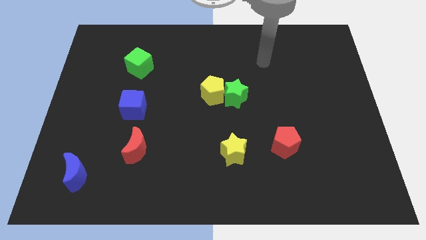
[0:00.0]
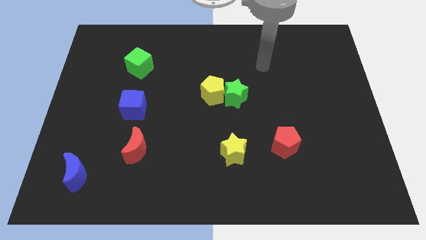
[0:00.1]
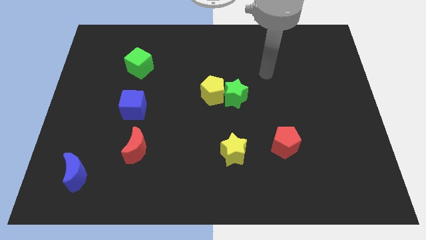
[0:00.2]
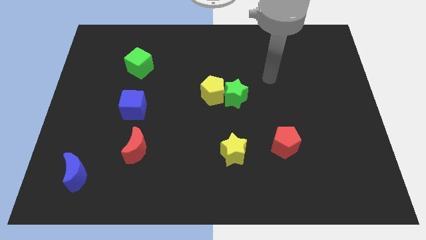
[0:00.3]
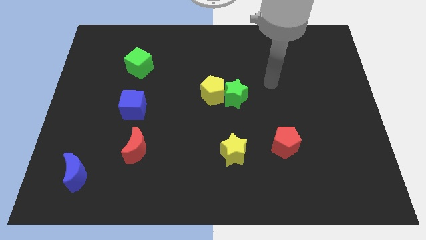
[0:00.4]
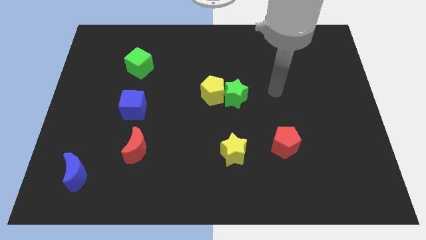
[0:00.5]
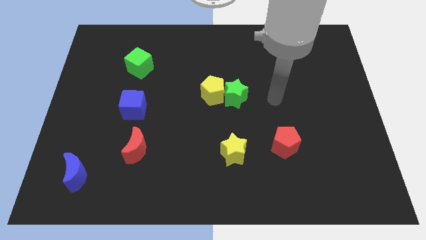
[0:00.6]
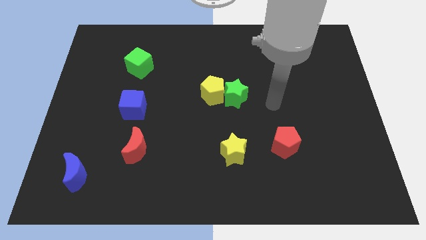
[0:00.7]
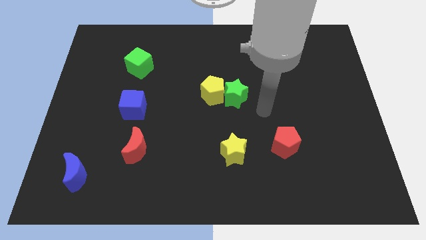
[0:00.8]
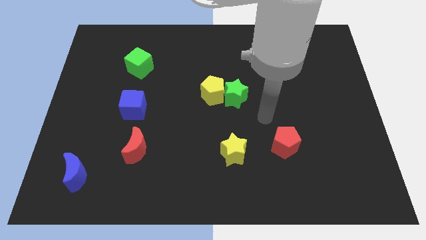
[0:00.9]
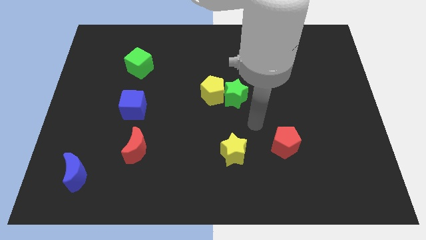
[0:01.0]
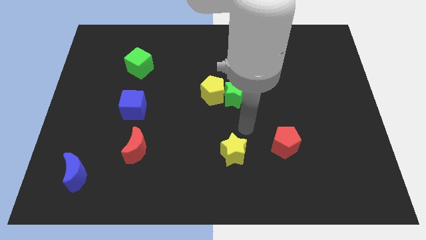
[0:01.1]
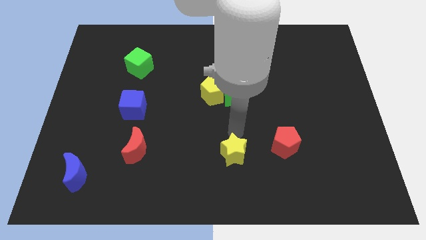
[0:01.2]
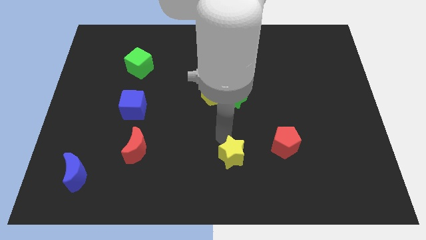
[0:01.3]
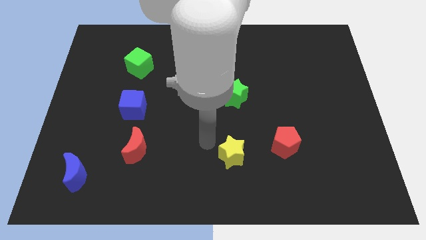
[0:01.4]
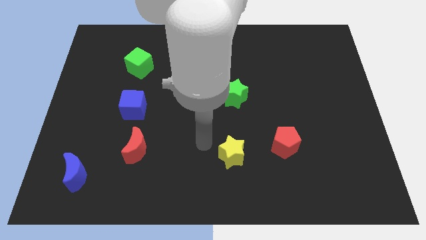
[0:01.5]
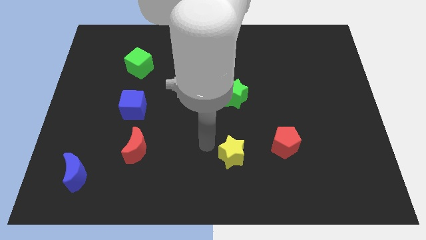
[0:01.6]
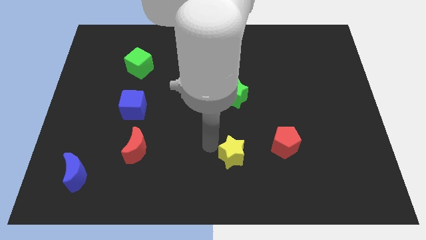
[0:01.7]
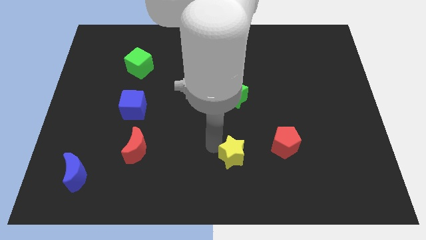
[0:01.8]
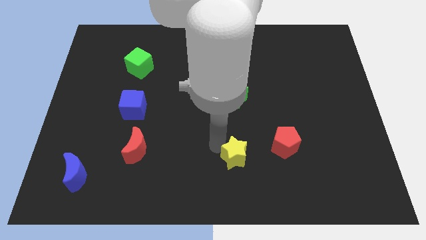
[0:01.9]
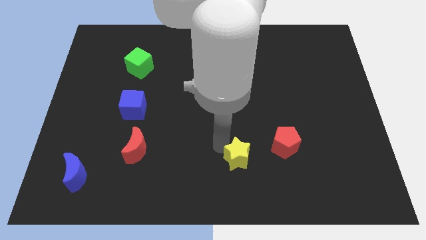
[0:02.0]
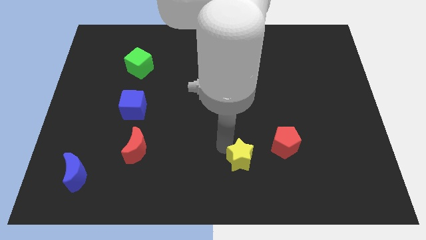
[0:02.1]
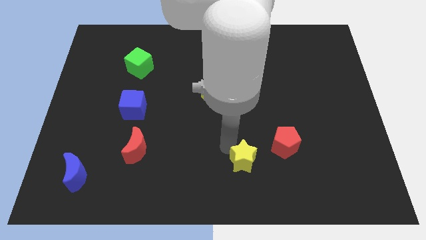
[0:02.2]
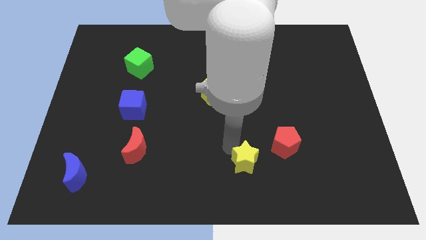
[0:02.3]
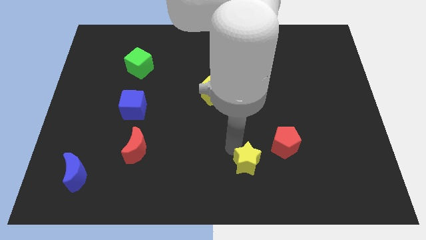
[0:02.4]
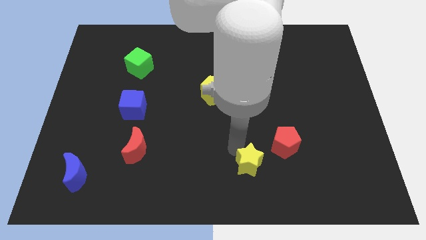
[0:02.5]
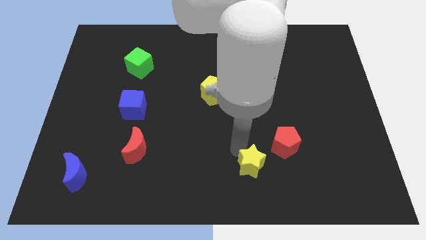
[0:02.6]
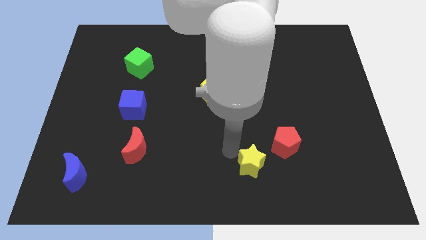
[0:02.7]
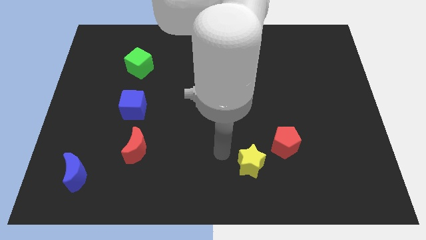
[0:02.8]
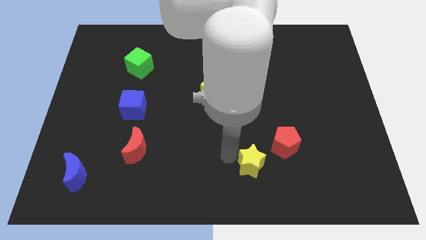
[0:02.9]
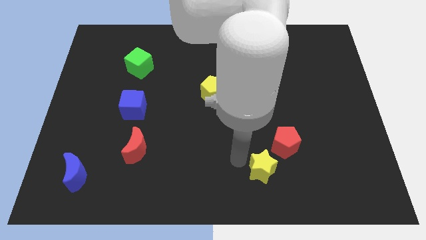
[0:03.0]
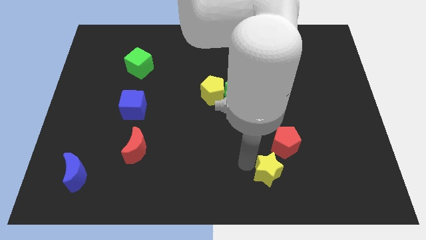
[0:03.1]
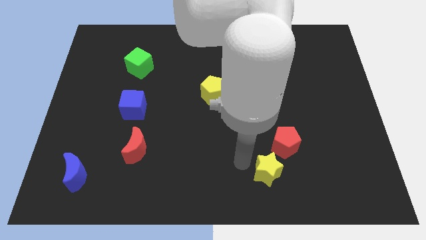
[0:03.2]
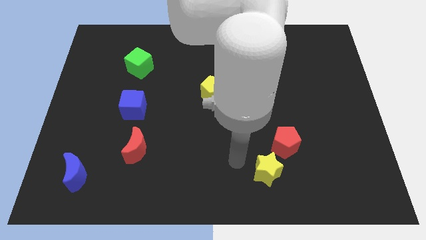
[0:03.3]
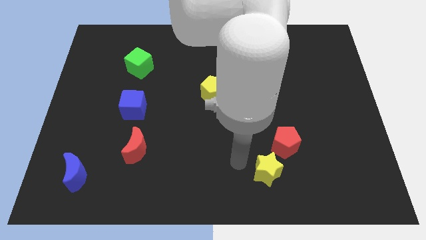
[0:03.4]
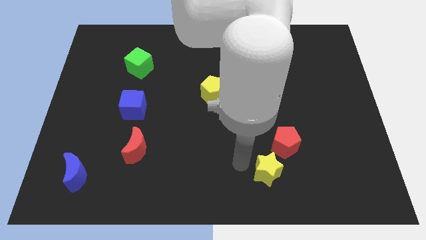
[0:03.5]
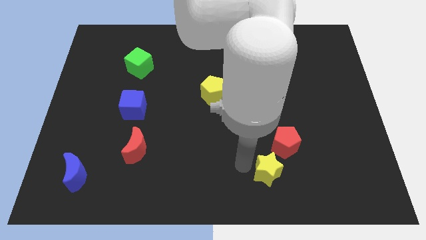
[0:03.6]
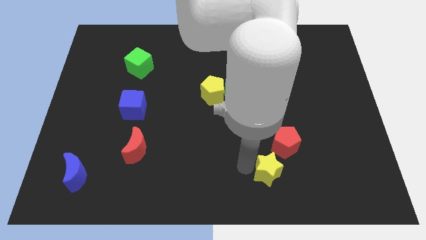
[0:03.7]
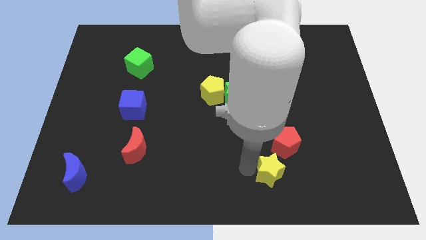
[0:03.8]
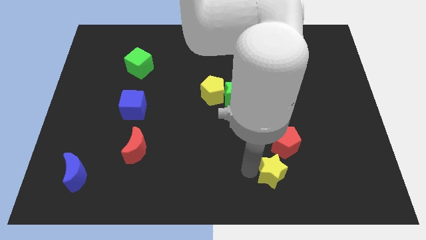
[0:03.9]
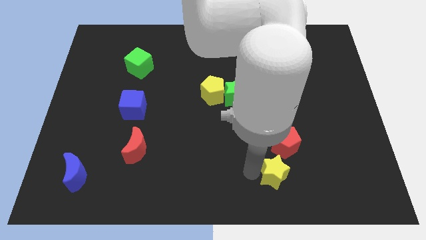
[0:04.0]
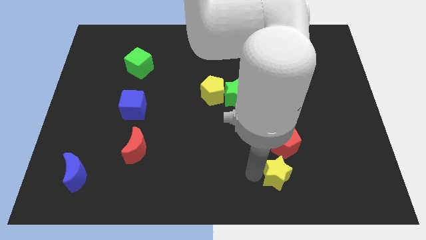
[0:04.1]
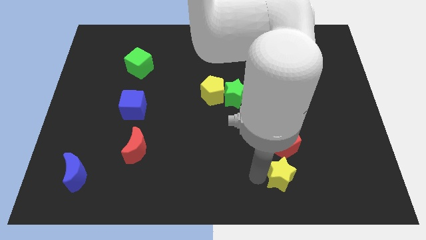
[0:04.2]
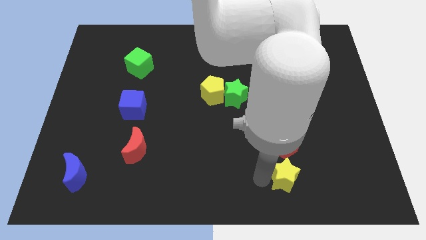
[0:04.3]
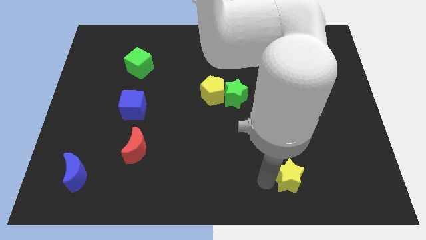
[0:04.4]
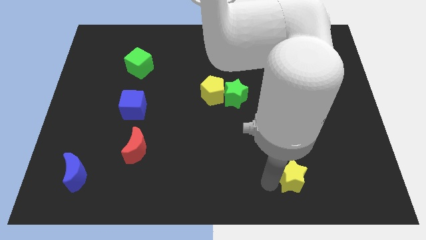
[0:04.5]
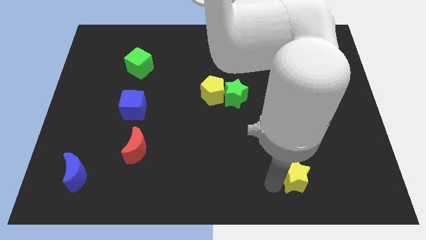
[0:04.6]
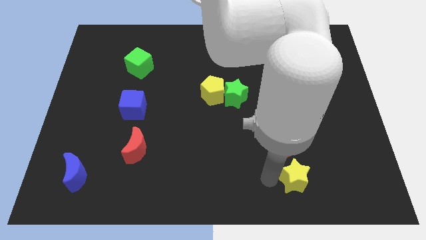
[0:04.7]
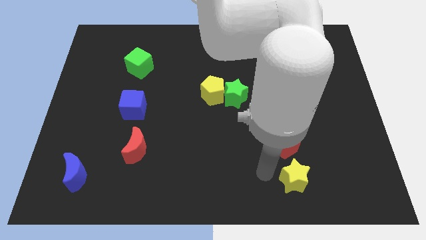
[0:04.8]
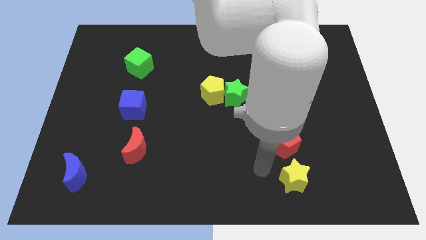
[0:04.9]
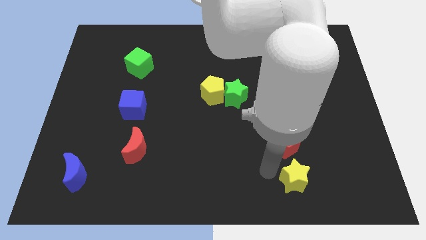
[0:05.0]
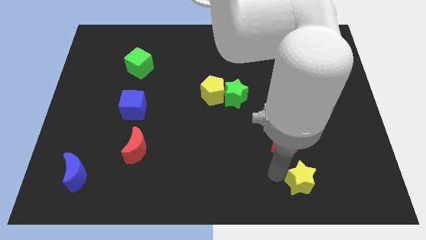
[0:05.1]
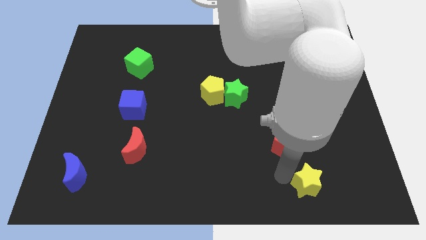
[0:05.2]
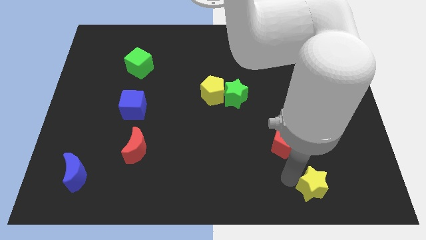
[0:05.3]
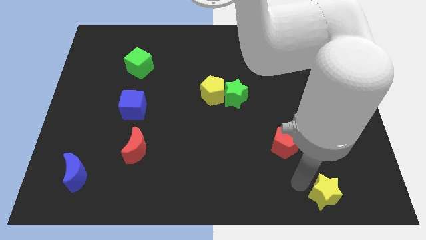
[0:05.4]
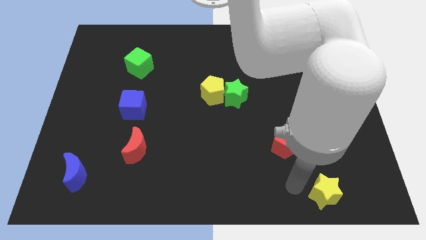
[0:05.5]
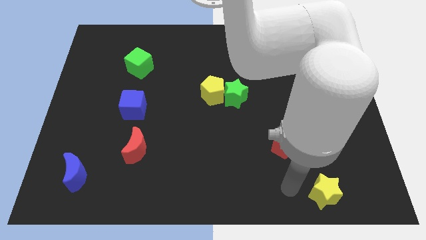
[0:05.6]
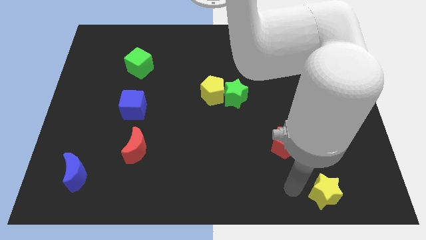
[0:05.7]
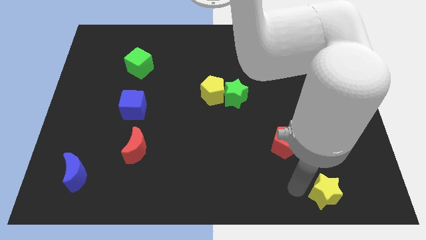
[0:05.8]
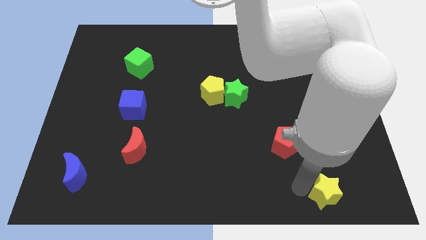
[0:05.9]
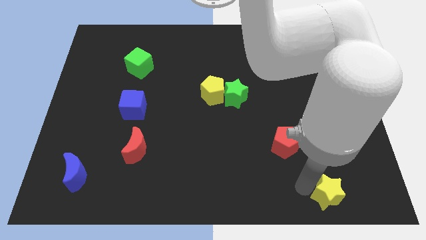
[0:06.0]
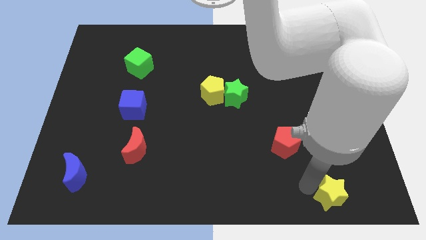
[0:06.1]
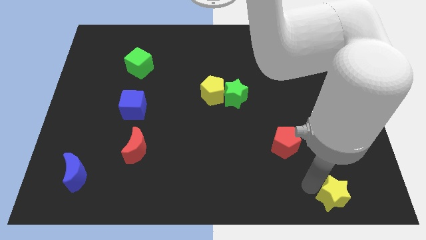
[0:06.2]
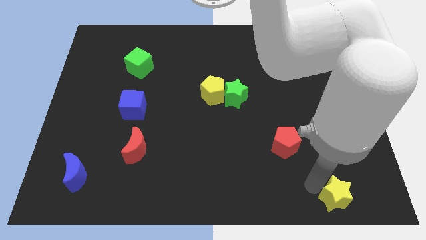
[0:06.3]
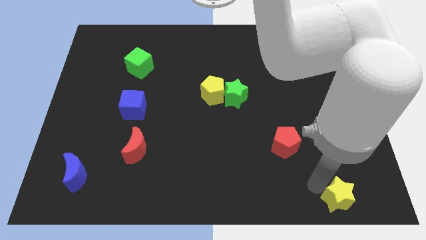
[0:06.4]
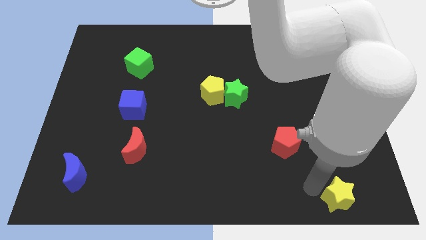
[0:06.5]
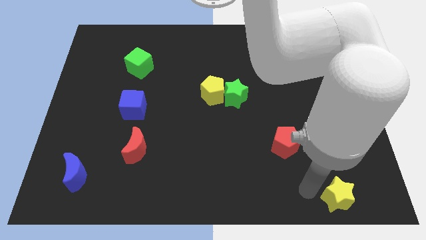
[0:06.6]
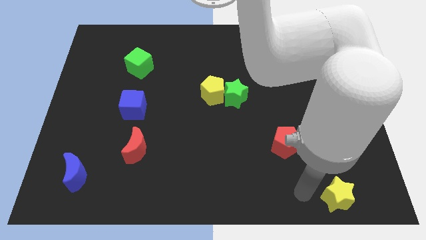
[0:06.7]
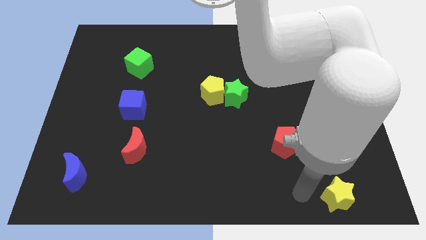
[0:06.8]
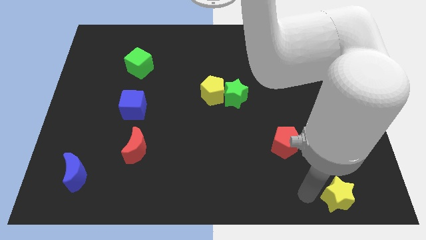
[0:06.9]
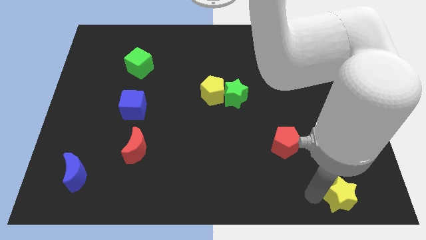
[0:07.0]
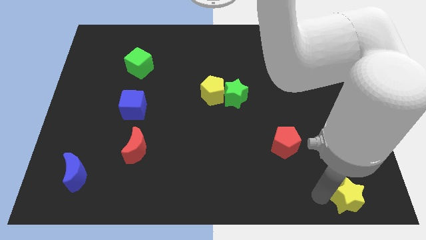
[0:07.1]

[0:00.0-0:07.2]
push the yellow star to the bottom right corner
